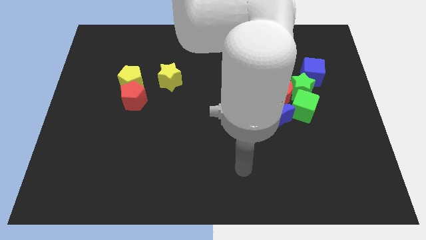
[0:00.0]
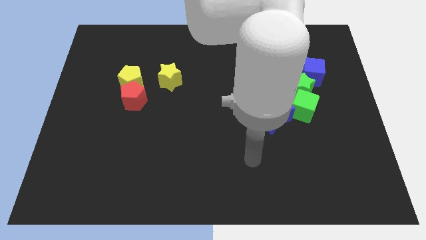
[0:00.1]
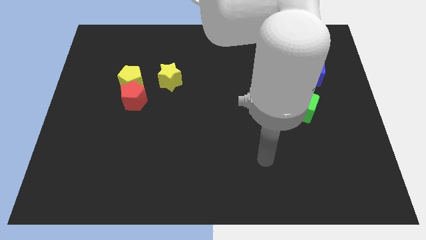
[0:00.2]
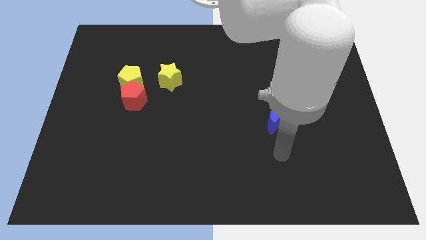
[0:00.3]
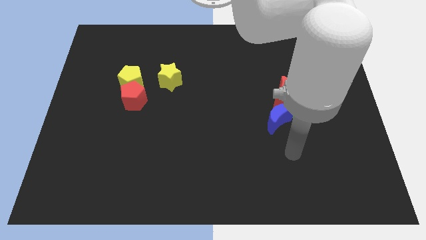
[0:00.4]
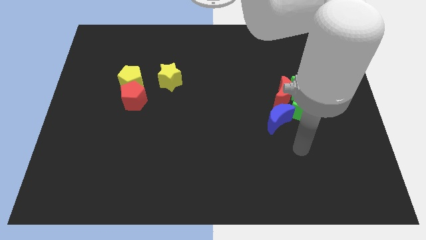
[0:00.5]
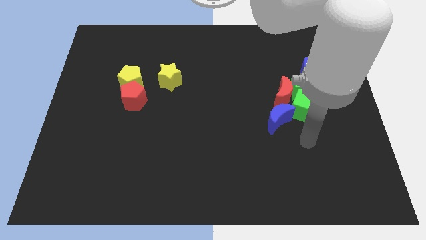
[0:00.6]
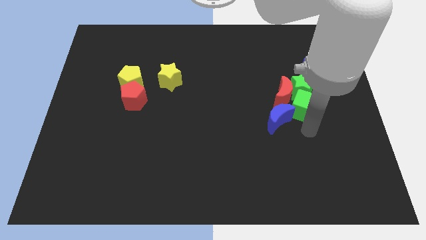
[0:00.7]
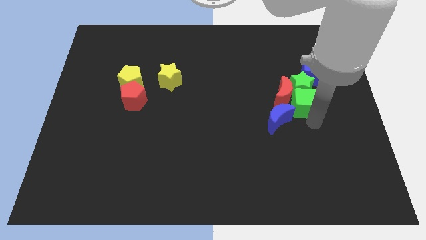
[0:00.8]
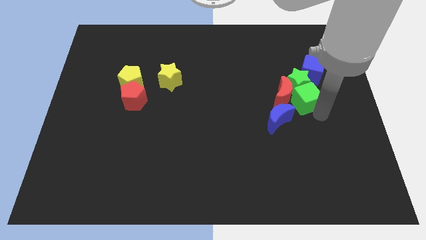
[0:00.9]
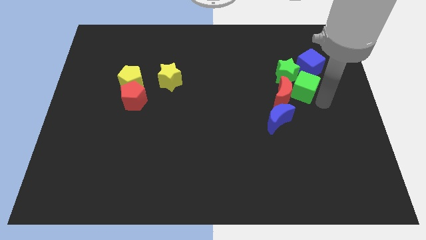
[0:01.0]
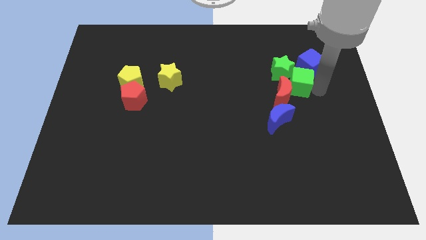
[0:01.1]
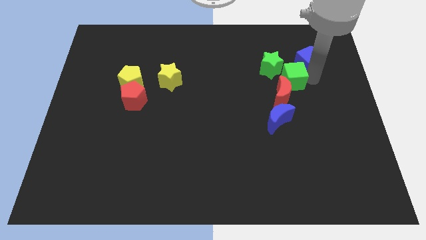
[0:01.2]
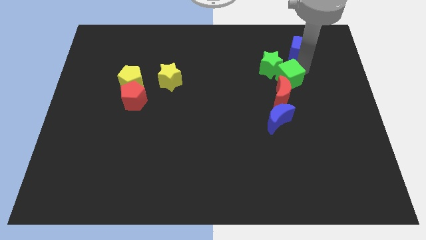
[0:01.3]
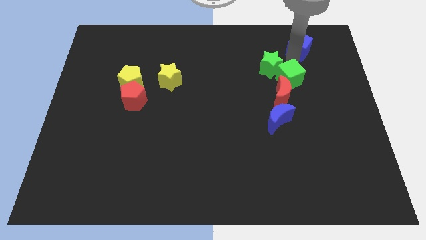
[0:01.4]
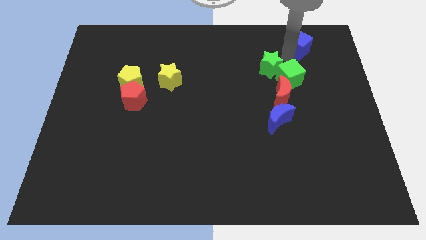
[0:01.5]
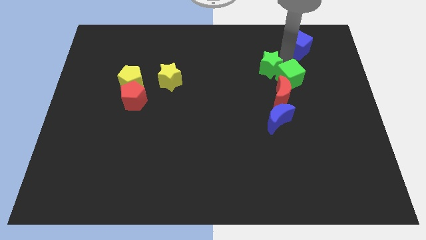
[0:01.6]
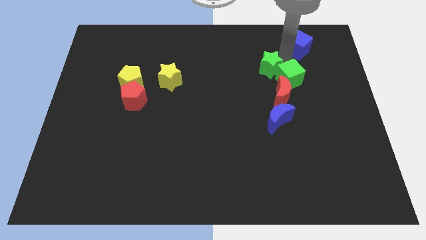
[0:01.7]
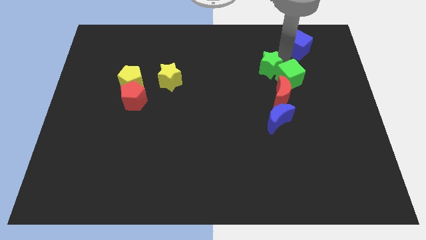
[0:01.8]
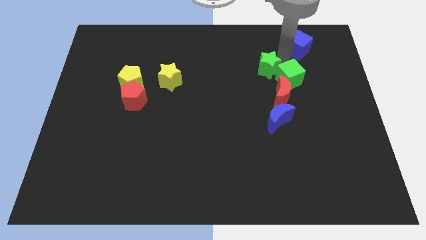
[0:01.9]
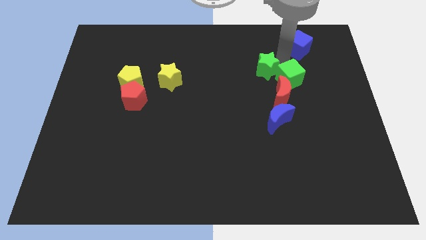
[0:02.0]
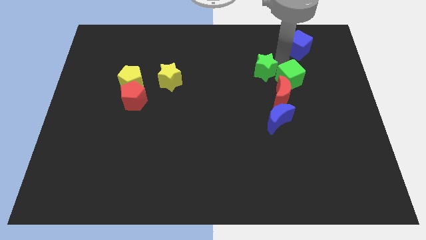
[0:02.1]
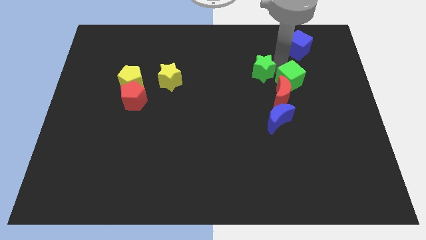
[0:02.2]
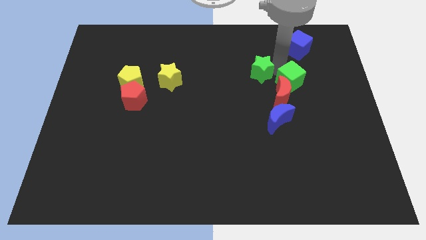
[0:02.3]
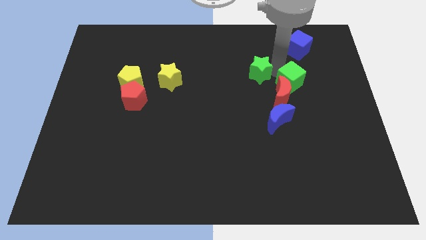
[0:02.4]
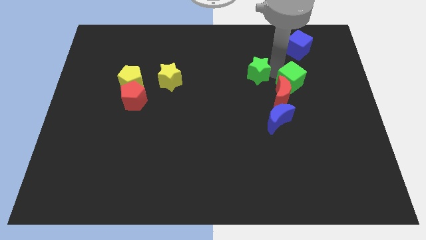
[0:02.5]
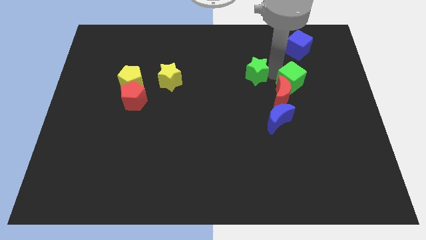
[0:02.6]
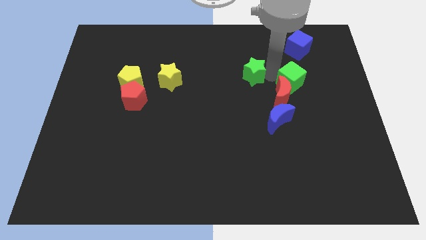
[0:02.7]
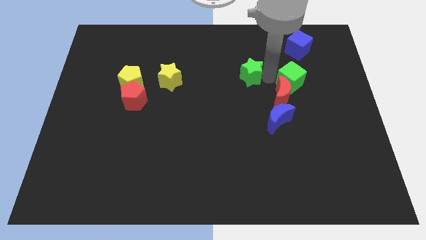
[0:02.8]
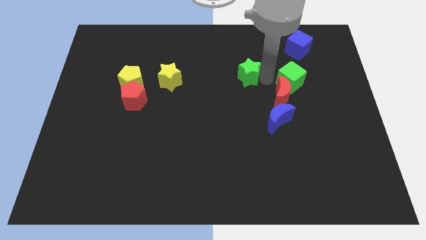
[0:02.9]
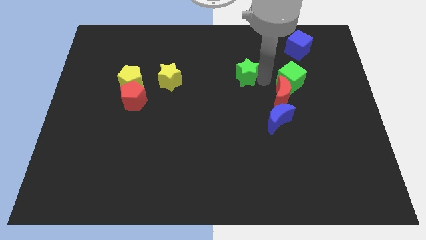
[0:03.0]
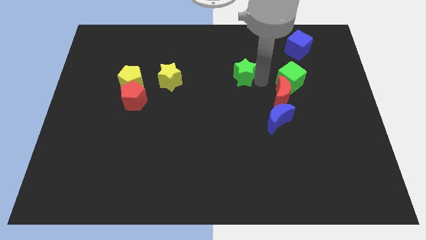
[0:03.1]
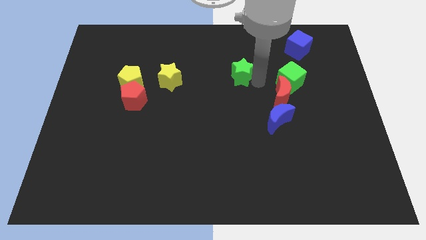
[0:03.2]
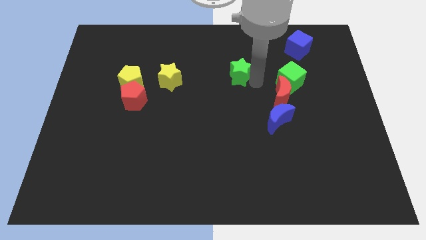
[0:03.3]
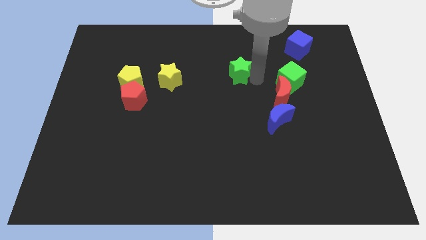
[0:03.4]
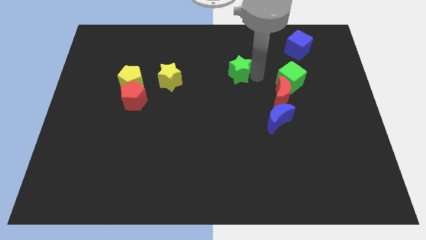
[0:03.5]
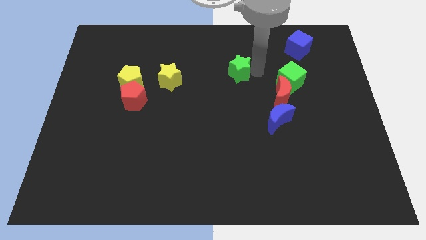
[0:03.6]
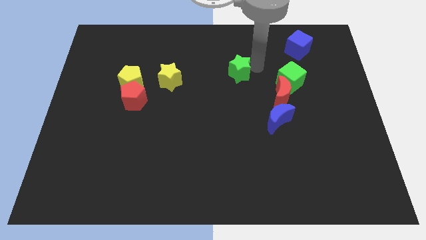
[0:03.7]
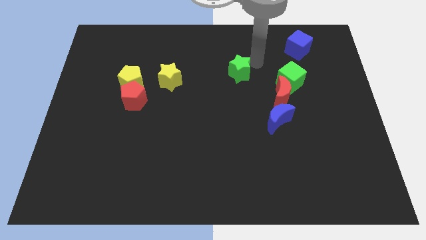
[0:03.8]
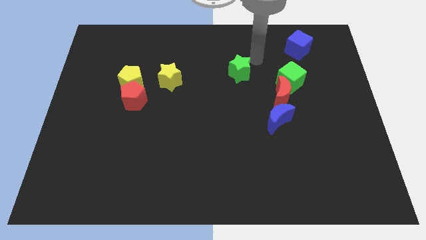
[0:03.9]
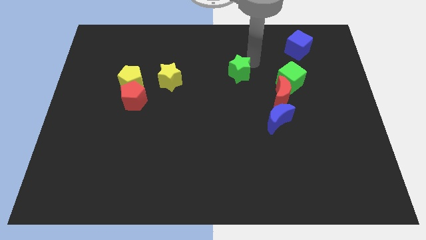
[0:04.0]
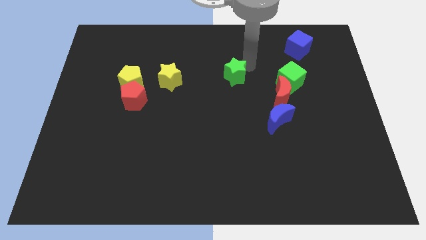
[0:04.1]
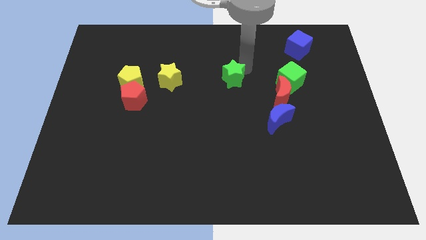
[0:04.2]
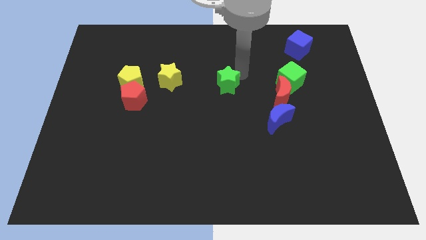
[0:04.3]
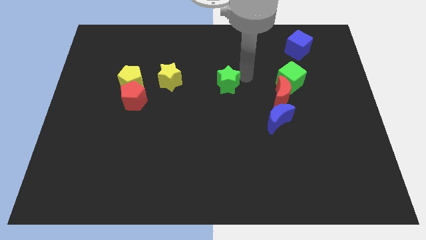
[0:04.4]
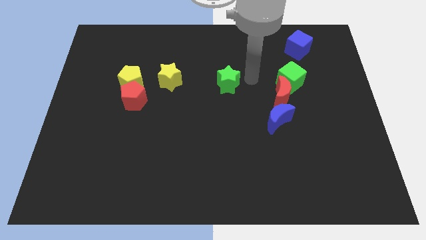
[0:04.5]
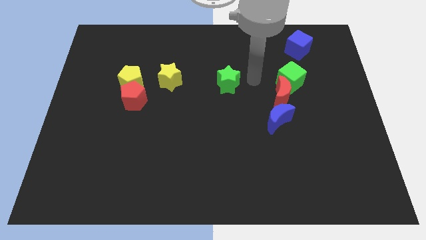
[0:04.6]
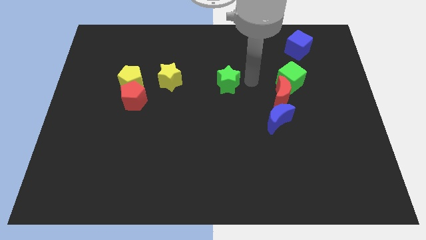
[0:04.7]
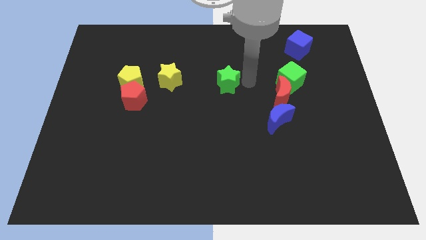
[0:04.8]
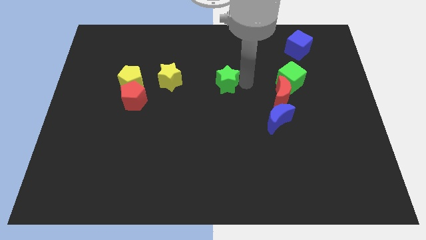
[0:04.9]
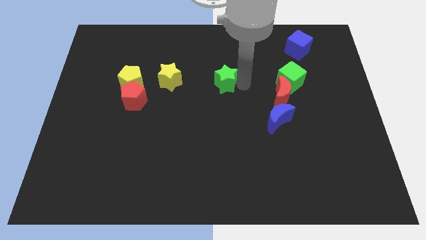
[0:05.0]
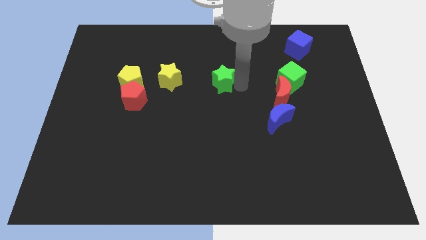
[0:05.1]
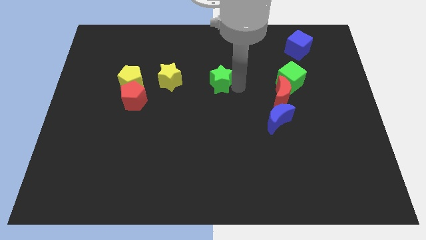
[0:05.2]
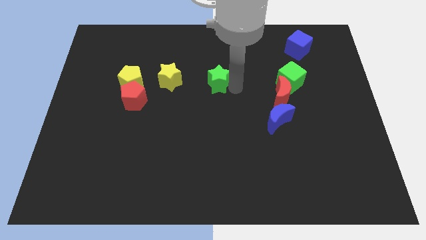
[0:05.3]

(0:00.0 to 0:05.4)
push the green star to the left

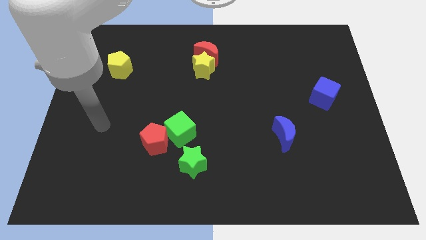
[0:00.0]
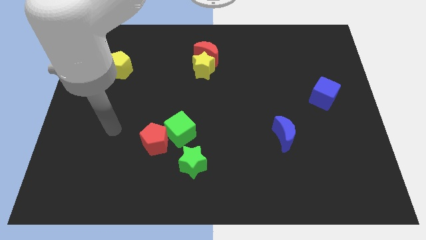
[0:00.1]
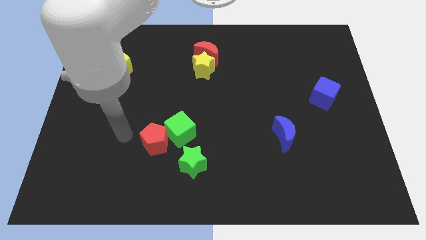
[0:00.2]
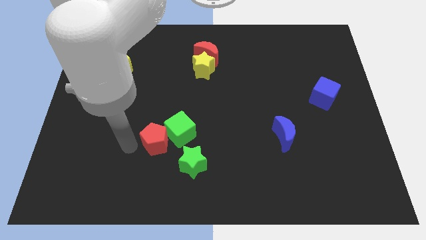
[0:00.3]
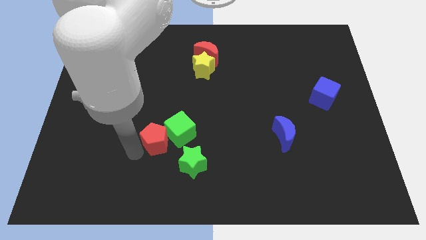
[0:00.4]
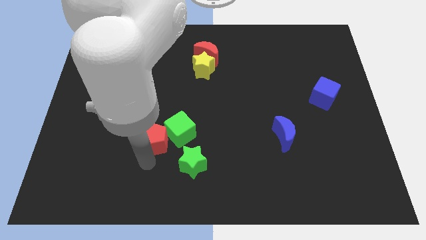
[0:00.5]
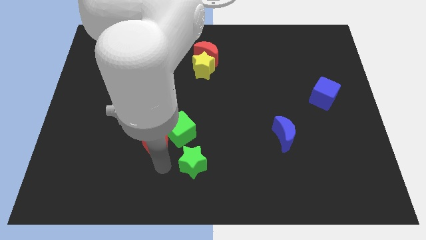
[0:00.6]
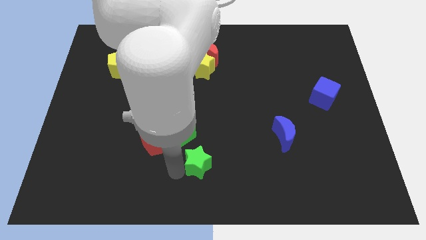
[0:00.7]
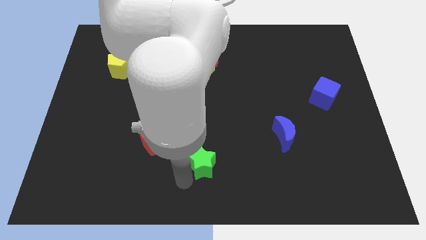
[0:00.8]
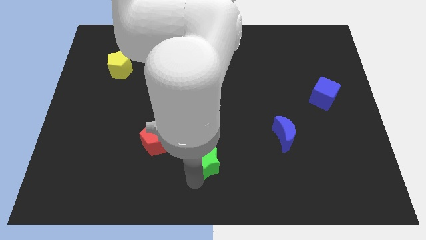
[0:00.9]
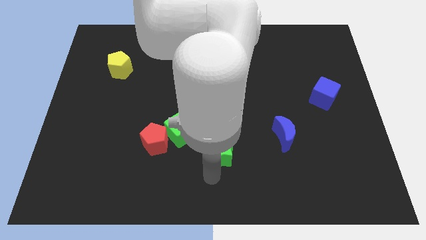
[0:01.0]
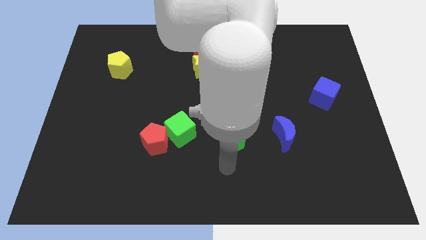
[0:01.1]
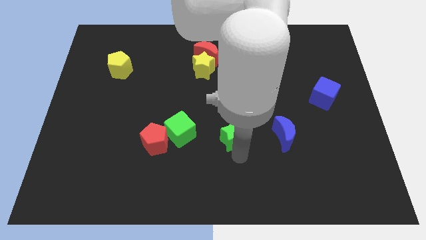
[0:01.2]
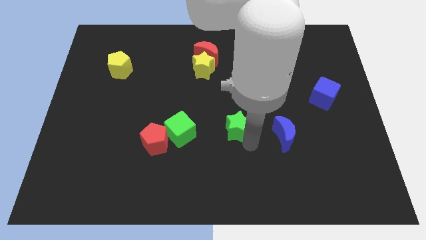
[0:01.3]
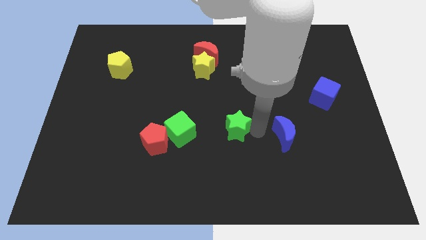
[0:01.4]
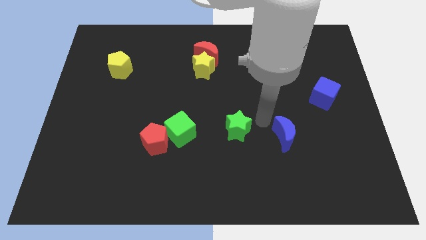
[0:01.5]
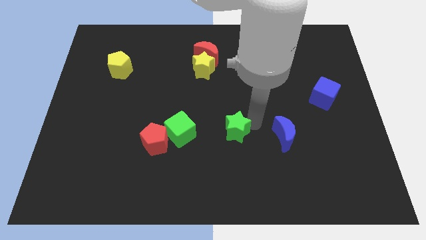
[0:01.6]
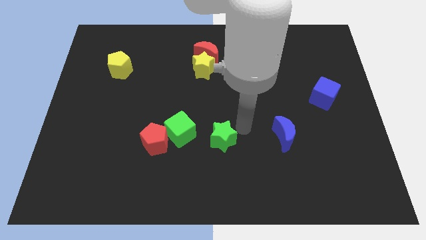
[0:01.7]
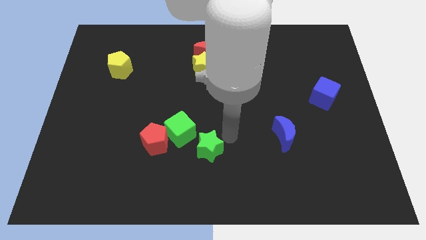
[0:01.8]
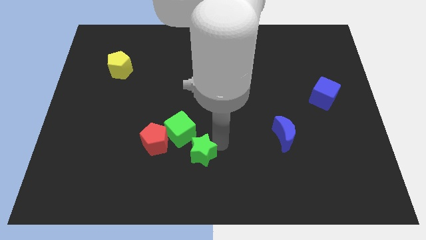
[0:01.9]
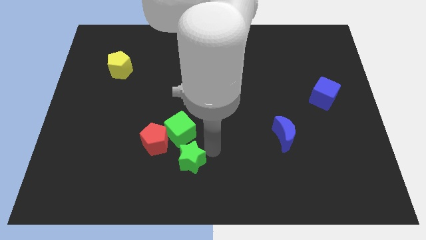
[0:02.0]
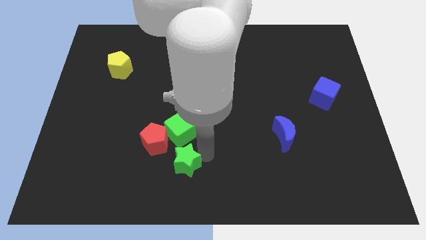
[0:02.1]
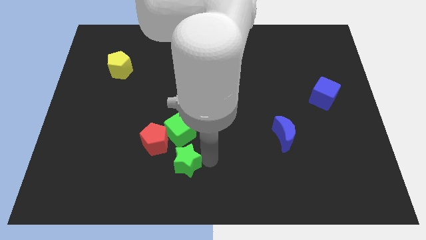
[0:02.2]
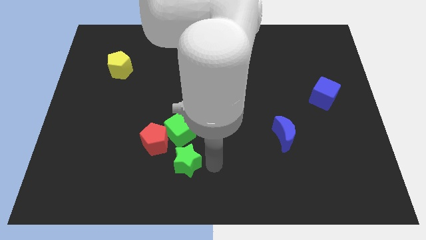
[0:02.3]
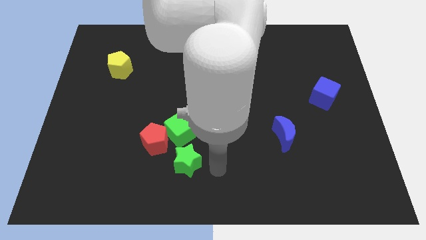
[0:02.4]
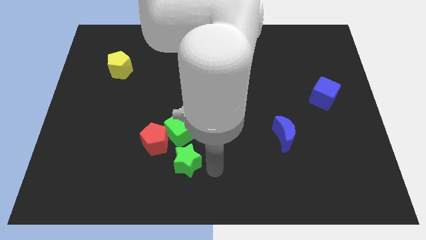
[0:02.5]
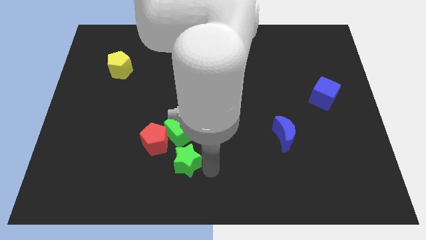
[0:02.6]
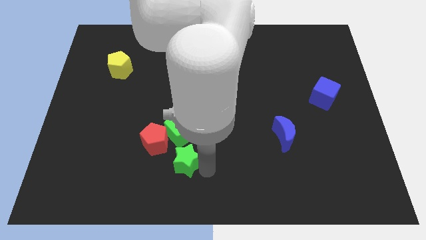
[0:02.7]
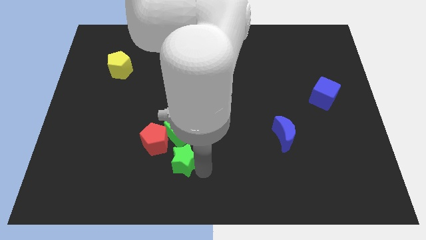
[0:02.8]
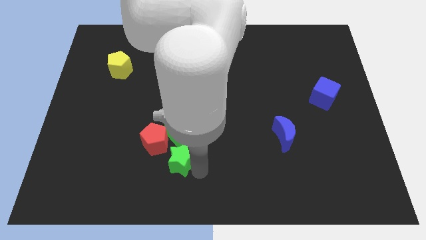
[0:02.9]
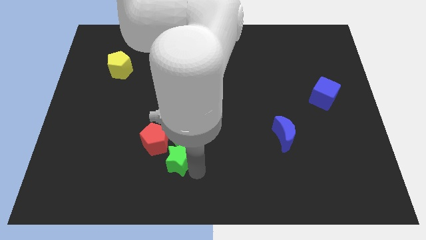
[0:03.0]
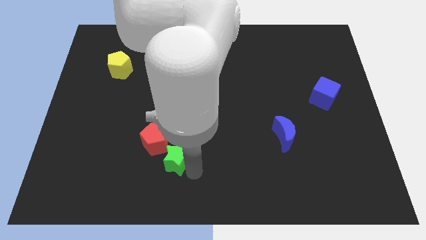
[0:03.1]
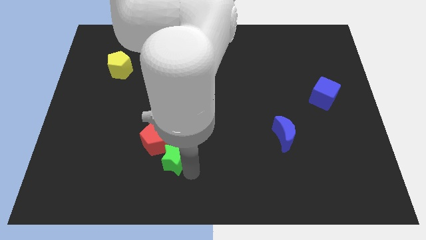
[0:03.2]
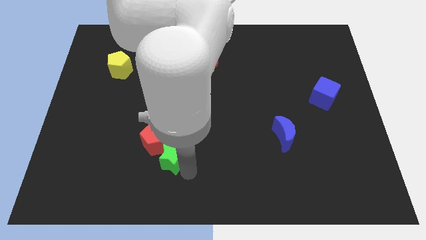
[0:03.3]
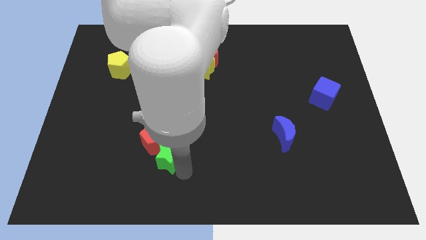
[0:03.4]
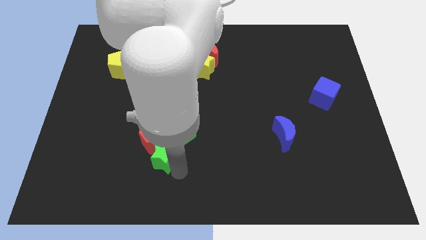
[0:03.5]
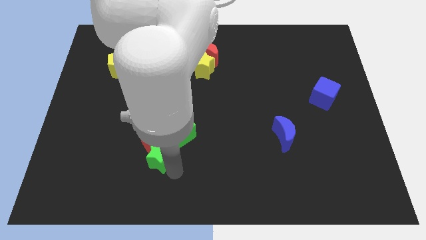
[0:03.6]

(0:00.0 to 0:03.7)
move the green star somewhat left
